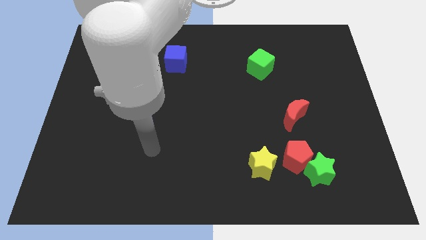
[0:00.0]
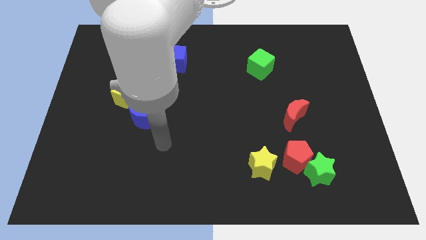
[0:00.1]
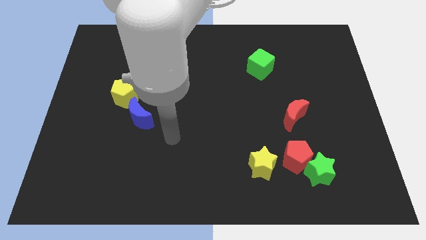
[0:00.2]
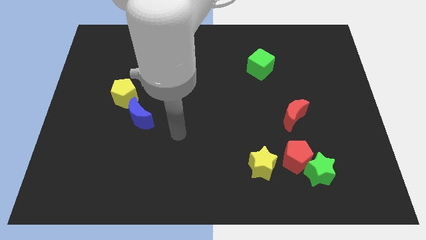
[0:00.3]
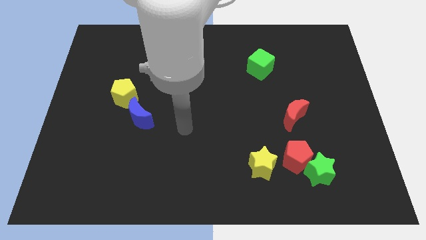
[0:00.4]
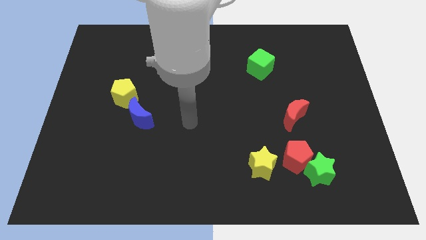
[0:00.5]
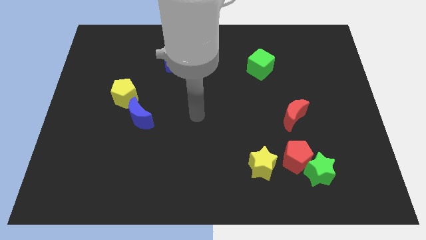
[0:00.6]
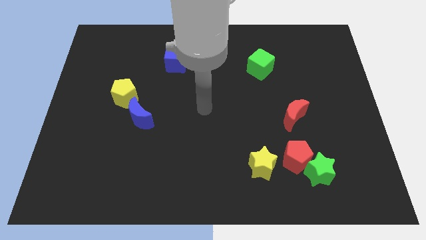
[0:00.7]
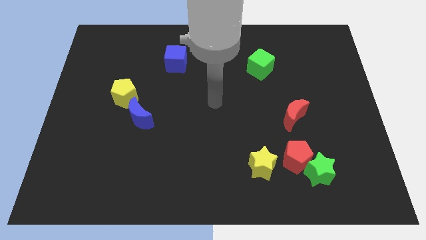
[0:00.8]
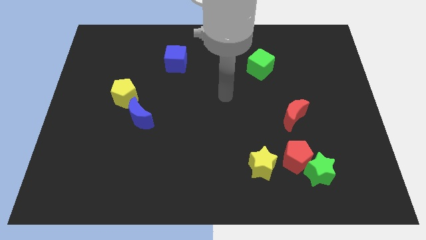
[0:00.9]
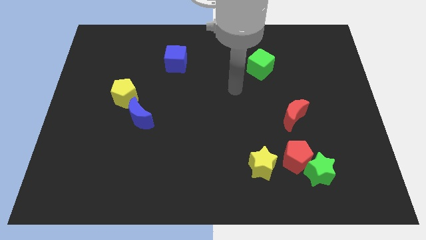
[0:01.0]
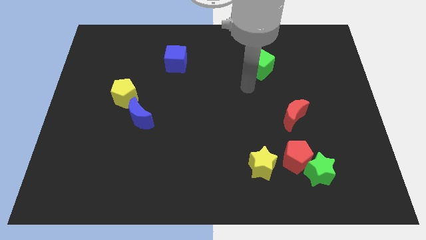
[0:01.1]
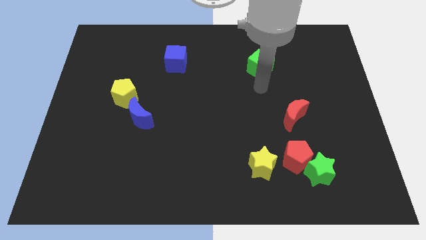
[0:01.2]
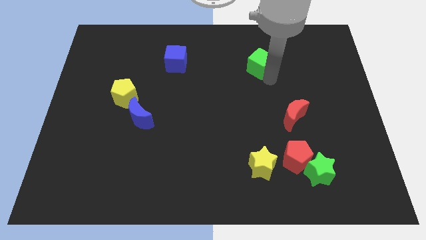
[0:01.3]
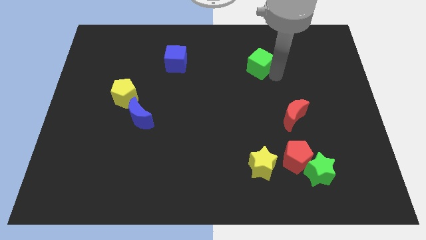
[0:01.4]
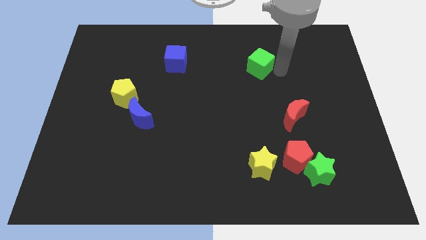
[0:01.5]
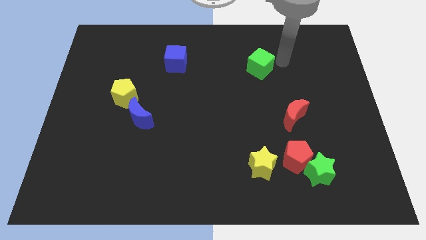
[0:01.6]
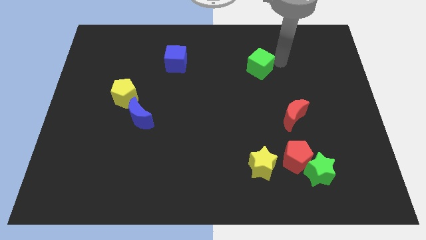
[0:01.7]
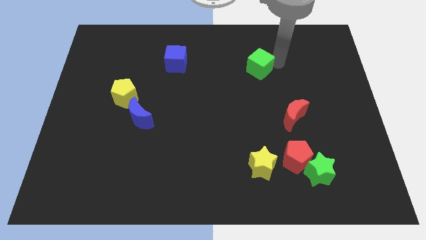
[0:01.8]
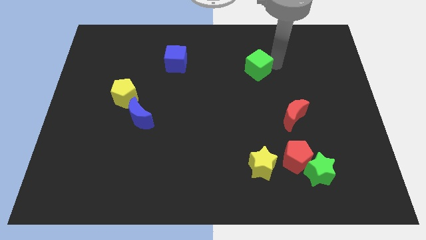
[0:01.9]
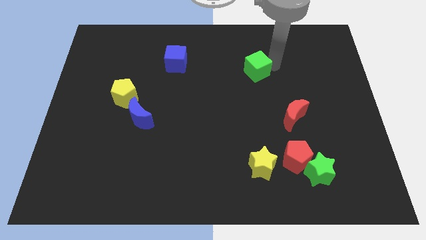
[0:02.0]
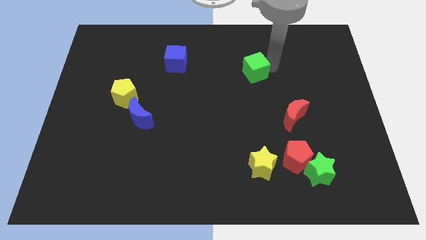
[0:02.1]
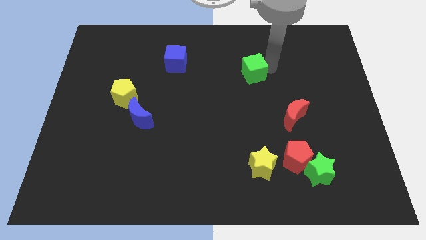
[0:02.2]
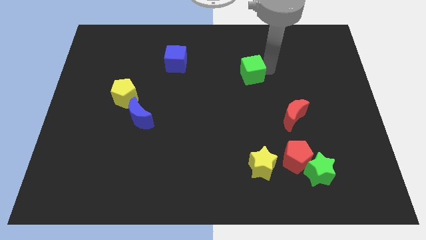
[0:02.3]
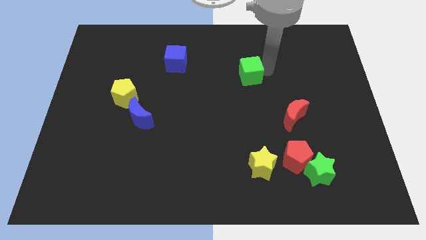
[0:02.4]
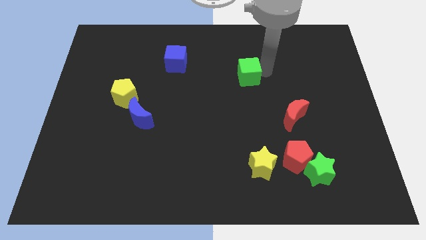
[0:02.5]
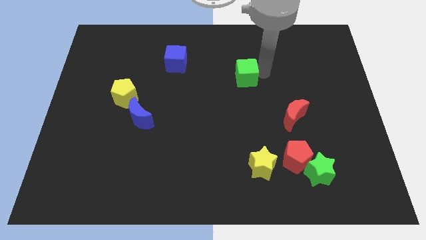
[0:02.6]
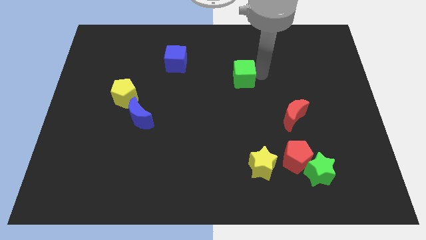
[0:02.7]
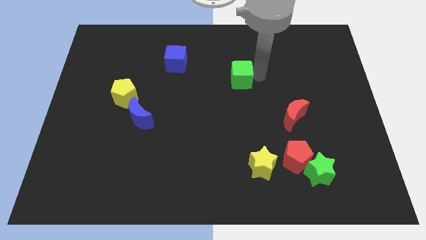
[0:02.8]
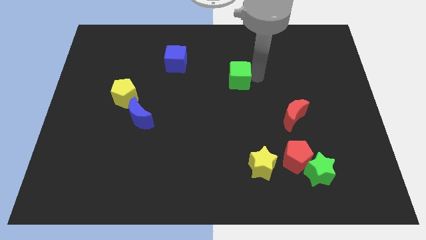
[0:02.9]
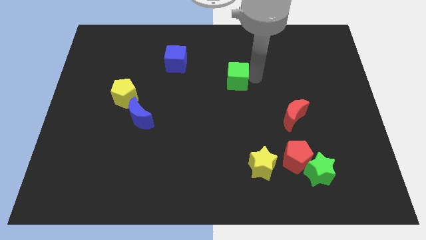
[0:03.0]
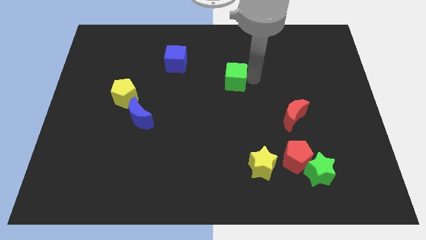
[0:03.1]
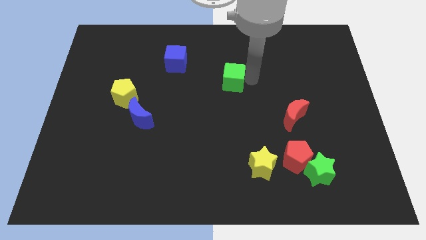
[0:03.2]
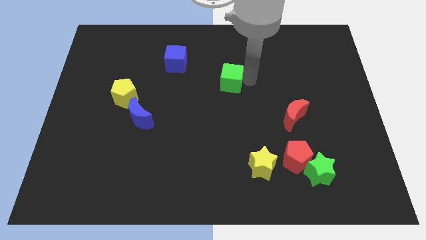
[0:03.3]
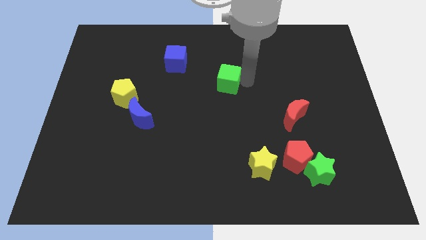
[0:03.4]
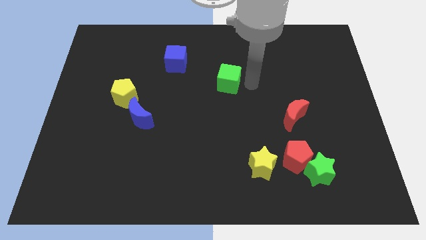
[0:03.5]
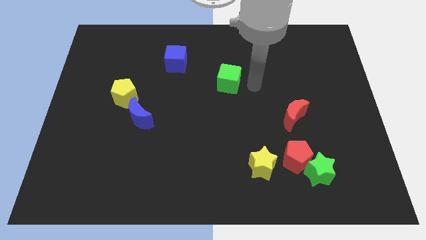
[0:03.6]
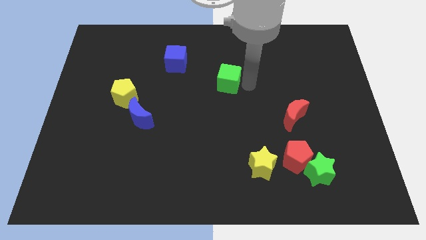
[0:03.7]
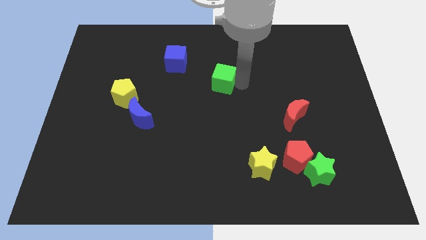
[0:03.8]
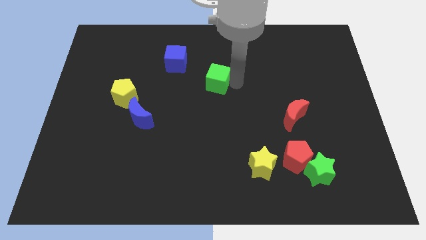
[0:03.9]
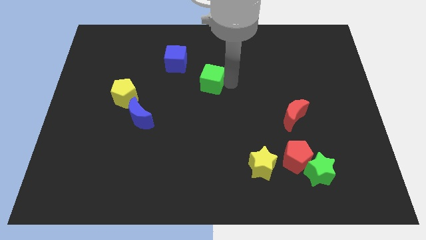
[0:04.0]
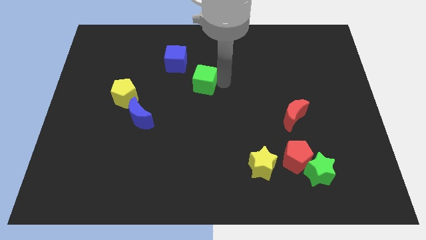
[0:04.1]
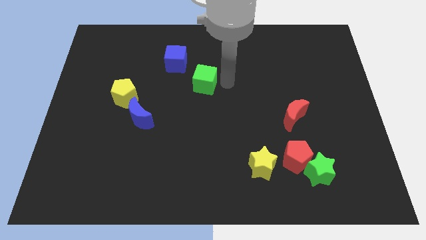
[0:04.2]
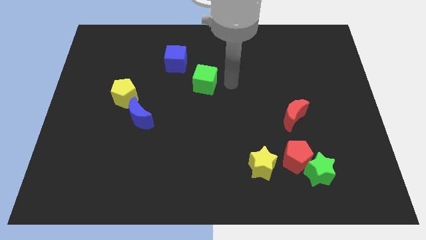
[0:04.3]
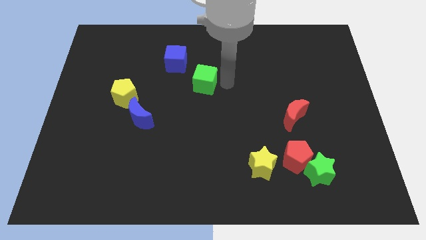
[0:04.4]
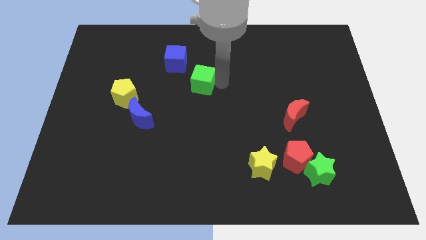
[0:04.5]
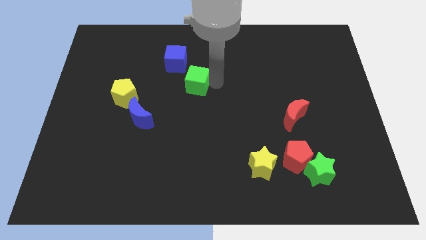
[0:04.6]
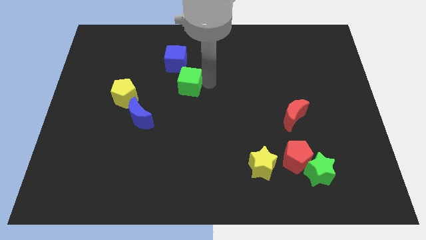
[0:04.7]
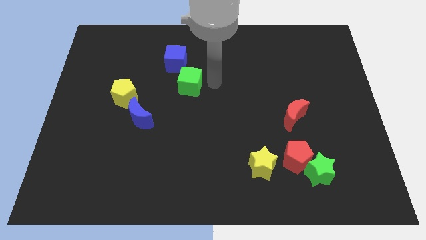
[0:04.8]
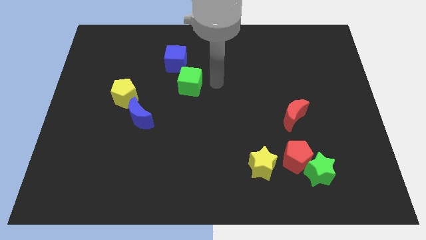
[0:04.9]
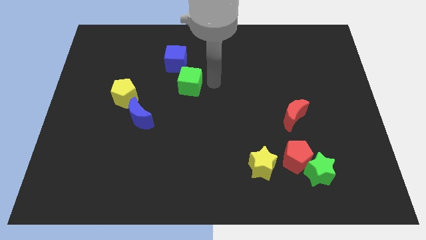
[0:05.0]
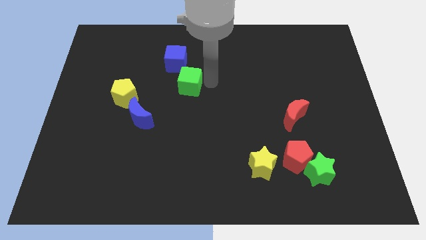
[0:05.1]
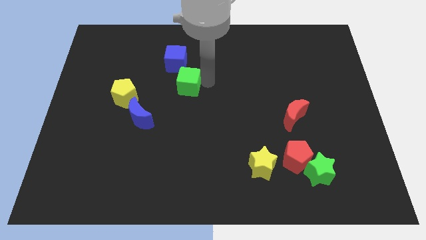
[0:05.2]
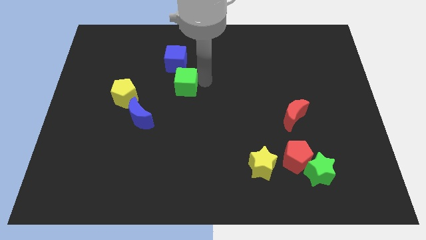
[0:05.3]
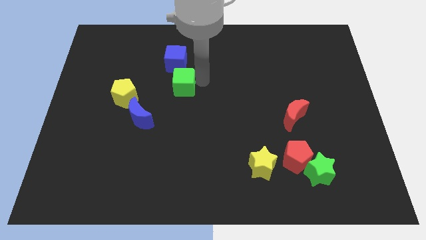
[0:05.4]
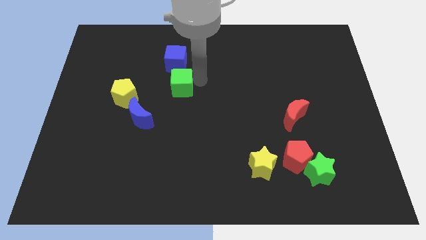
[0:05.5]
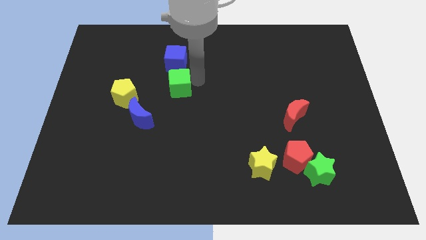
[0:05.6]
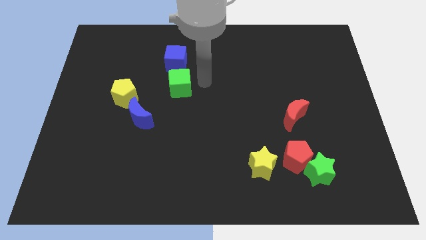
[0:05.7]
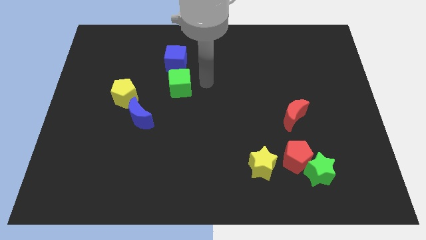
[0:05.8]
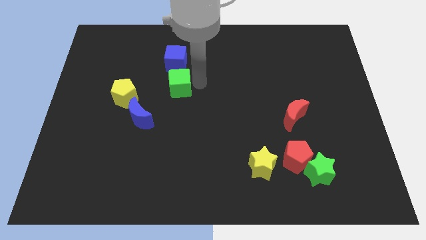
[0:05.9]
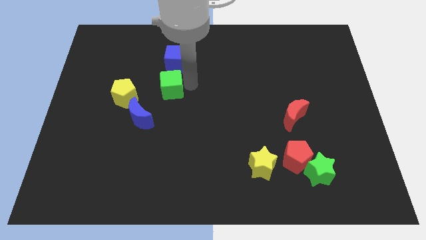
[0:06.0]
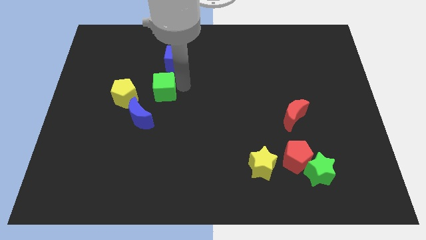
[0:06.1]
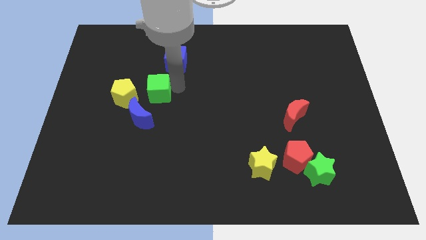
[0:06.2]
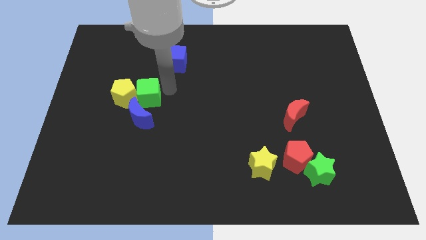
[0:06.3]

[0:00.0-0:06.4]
put the green cube close to the yellow pentagon
